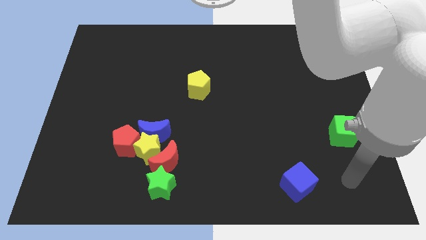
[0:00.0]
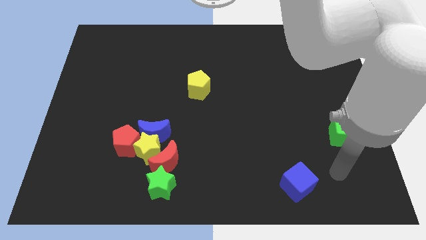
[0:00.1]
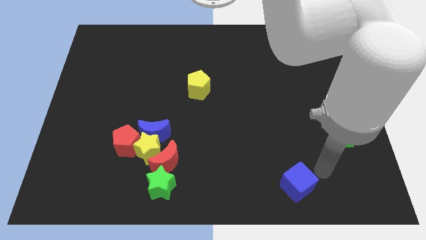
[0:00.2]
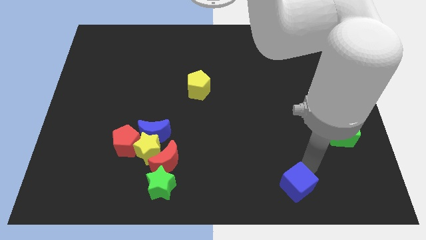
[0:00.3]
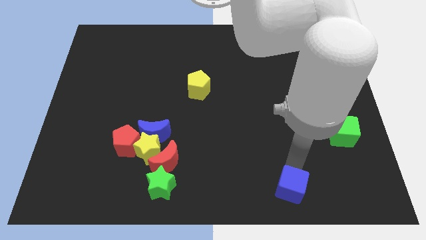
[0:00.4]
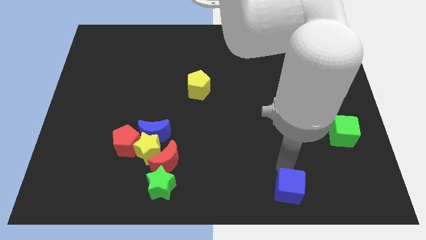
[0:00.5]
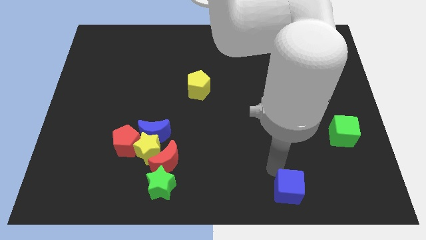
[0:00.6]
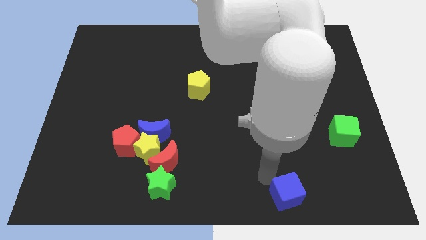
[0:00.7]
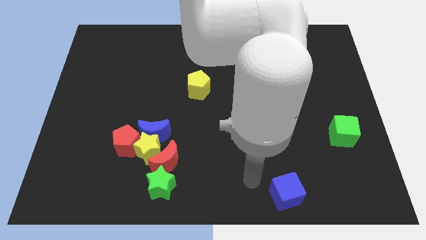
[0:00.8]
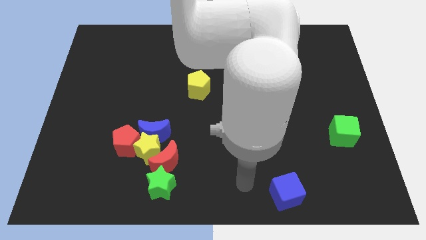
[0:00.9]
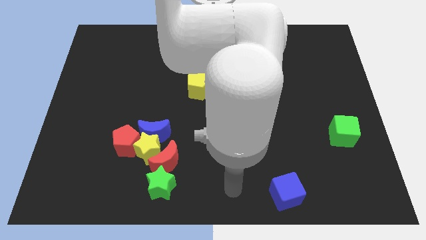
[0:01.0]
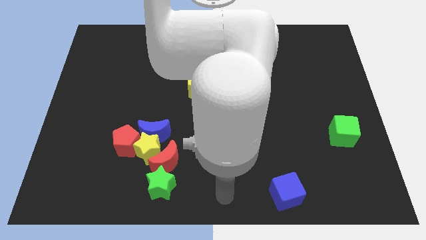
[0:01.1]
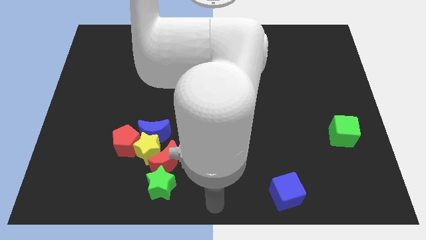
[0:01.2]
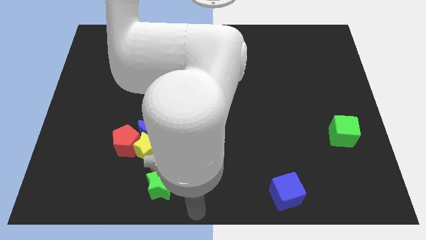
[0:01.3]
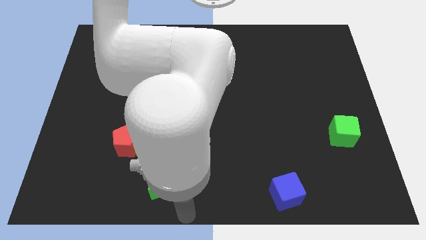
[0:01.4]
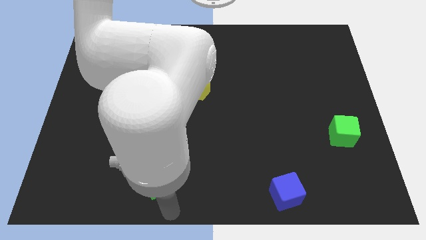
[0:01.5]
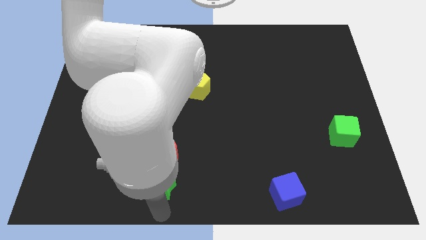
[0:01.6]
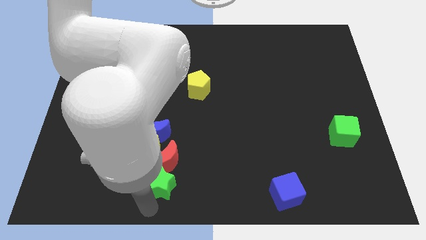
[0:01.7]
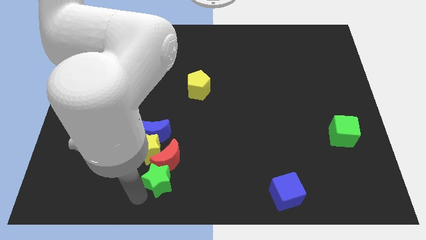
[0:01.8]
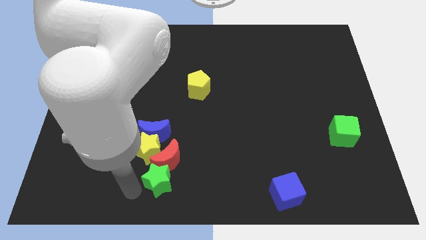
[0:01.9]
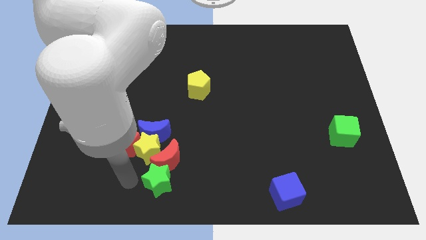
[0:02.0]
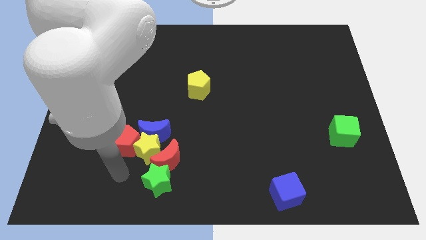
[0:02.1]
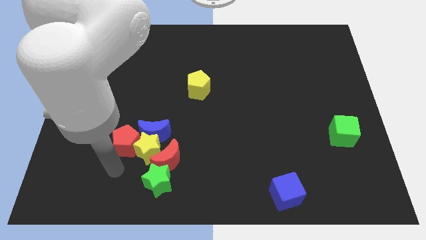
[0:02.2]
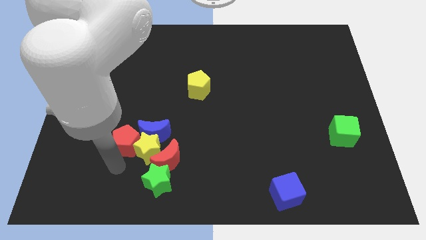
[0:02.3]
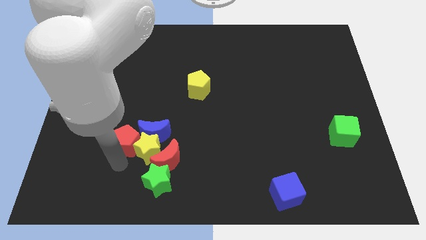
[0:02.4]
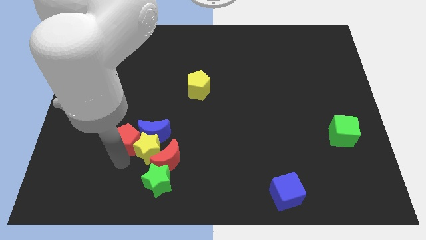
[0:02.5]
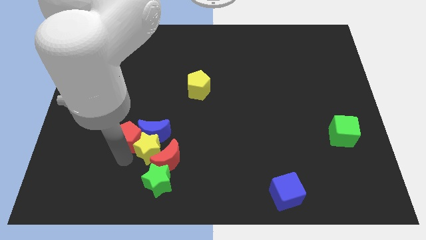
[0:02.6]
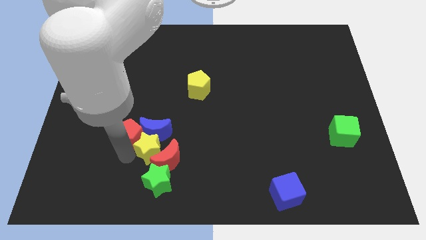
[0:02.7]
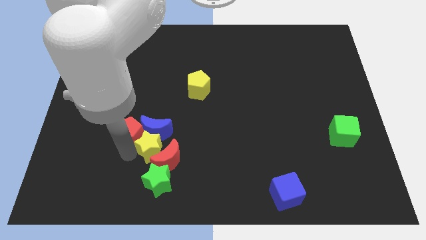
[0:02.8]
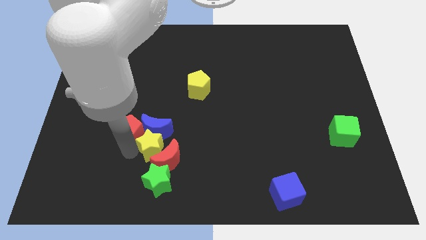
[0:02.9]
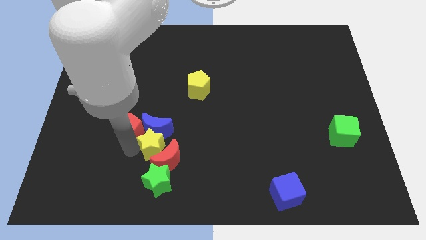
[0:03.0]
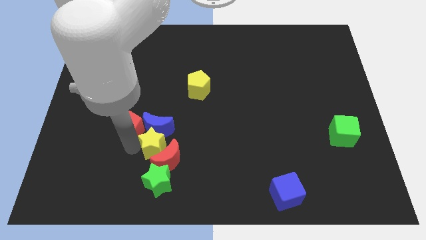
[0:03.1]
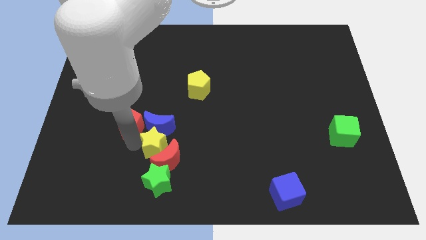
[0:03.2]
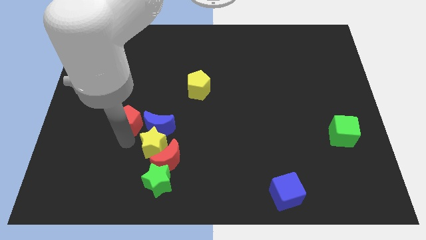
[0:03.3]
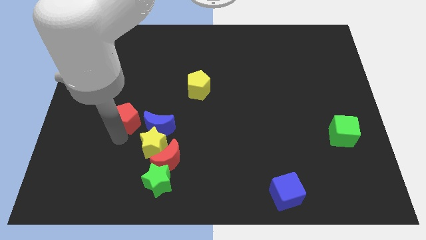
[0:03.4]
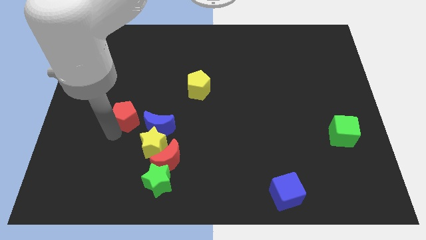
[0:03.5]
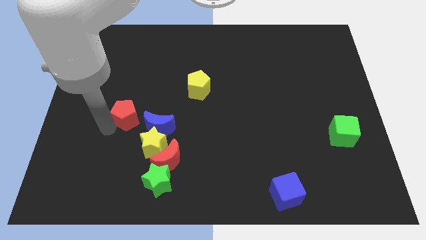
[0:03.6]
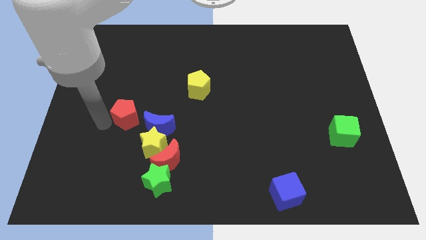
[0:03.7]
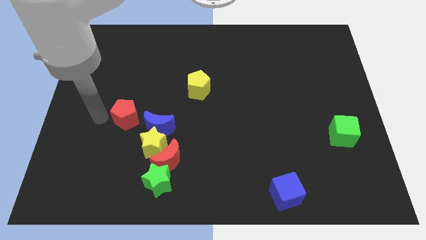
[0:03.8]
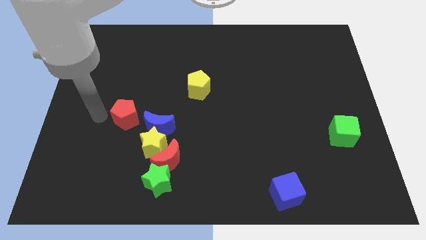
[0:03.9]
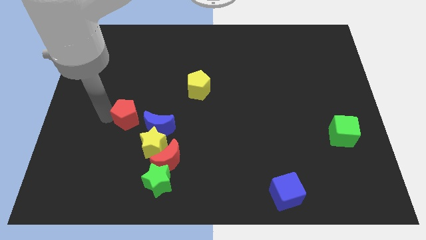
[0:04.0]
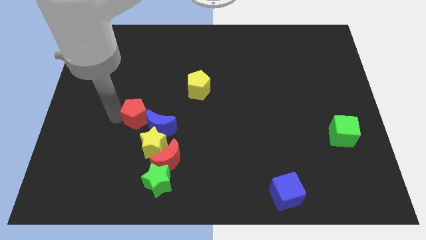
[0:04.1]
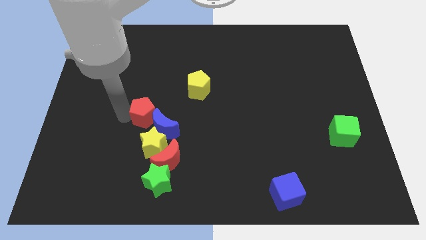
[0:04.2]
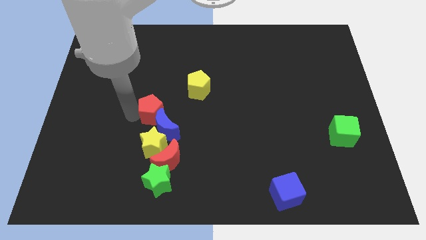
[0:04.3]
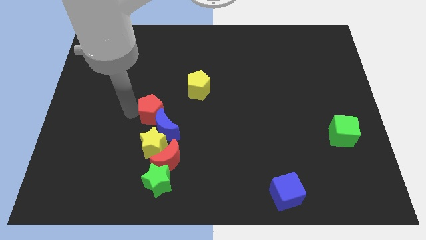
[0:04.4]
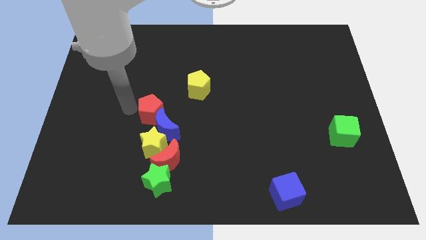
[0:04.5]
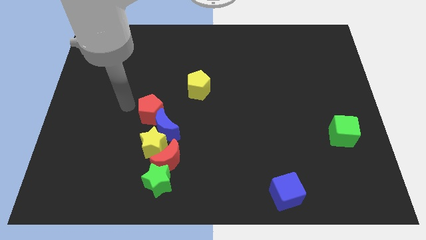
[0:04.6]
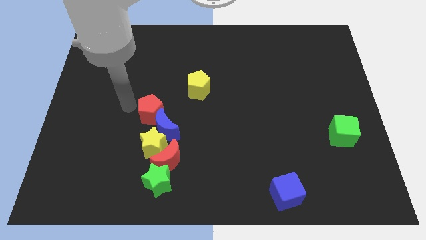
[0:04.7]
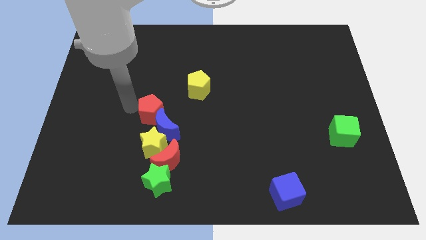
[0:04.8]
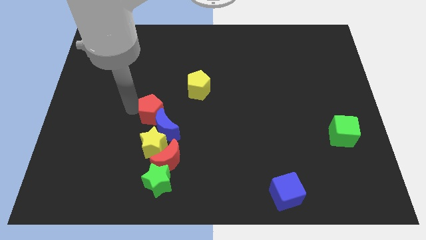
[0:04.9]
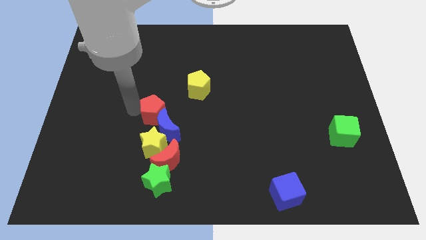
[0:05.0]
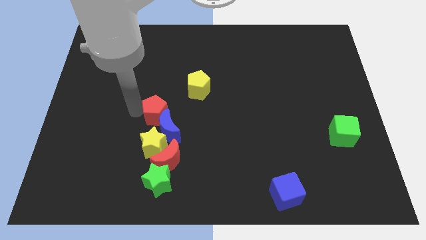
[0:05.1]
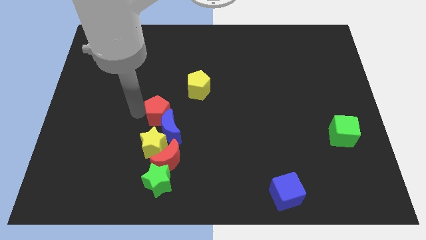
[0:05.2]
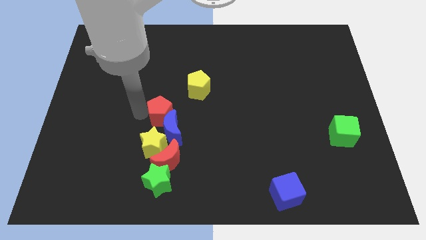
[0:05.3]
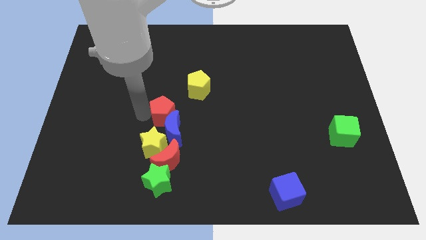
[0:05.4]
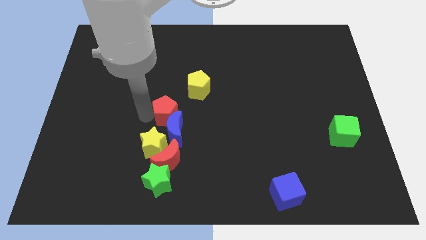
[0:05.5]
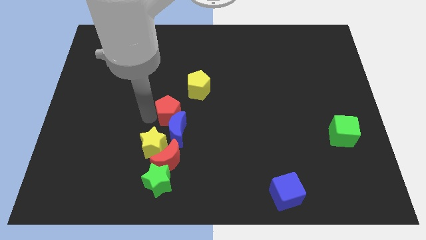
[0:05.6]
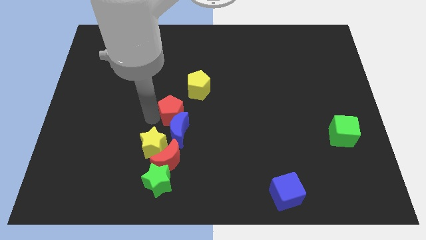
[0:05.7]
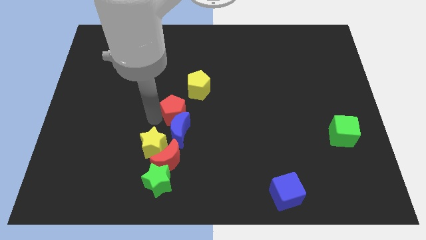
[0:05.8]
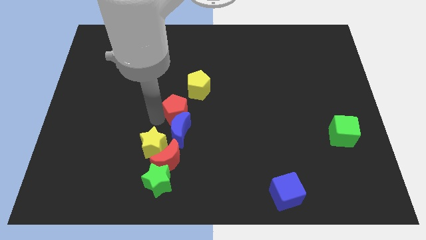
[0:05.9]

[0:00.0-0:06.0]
slide the red pentagon to the right a bit

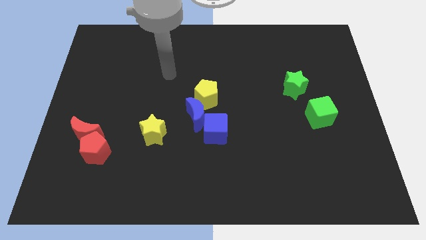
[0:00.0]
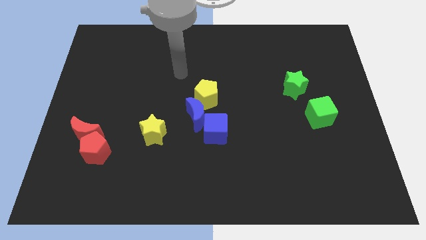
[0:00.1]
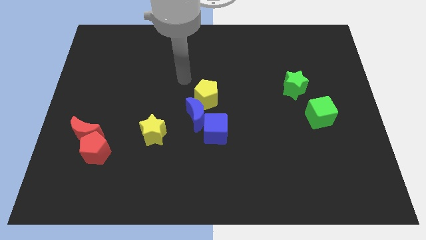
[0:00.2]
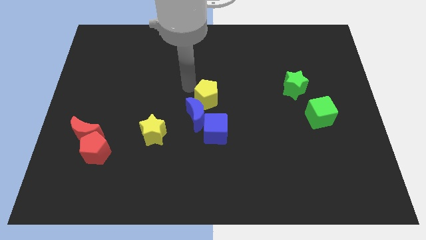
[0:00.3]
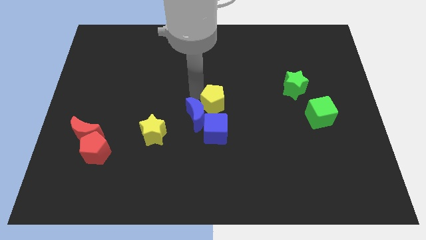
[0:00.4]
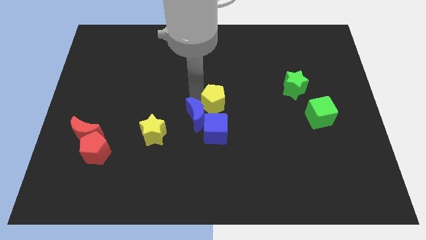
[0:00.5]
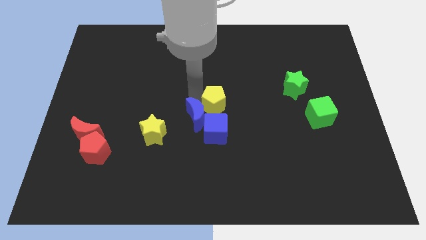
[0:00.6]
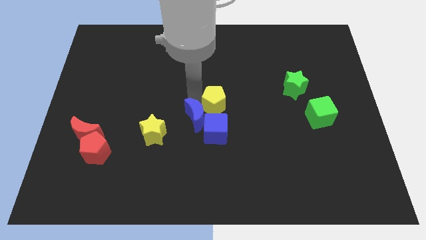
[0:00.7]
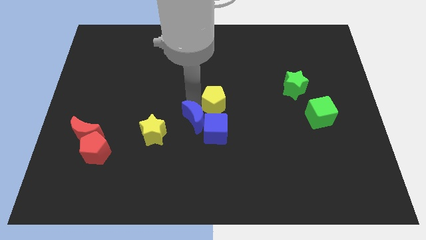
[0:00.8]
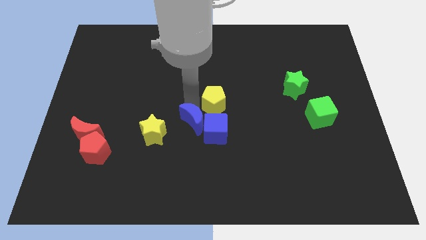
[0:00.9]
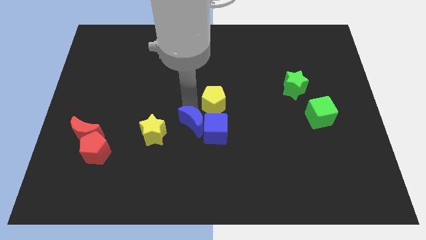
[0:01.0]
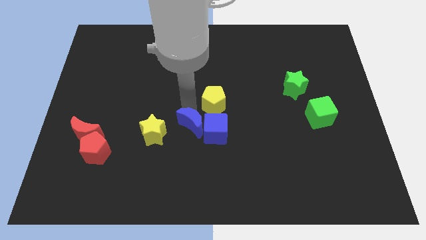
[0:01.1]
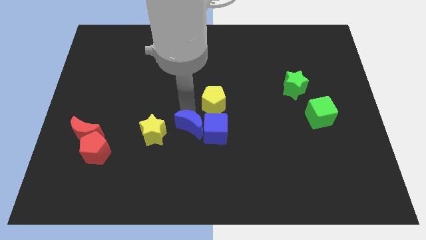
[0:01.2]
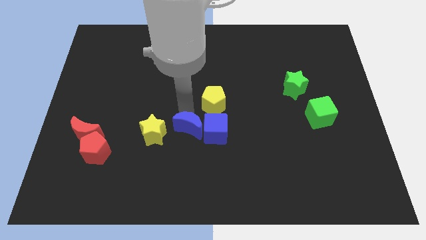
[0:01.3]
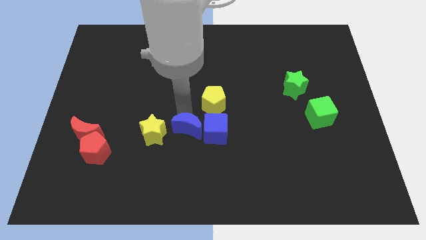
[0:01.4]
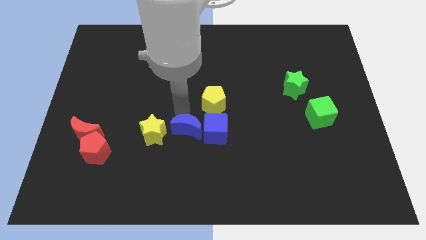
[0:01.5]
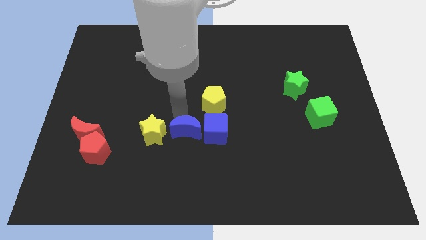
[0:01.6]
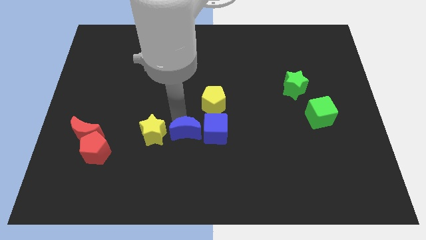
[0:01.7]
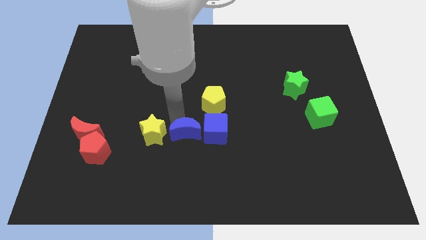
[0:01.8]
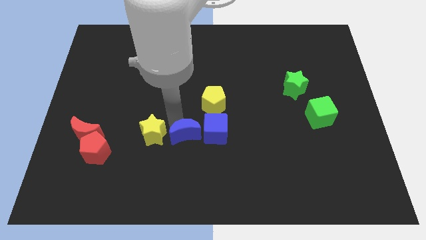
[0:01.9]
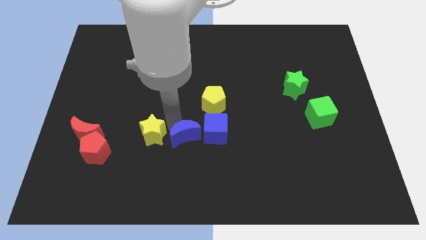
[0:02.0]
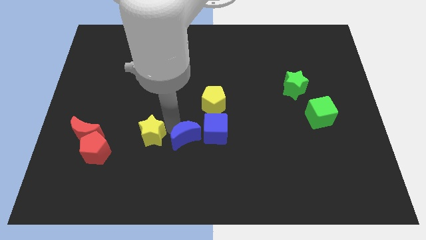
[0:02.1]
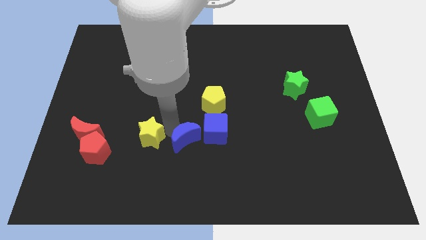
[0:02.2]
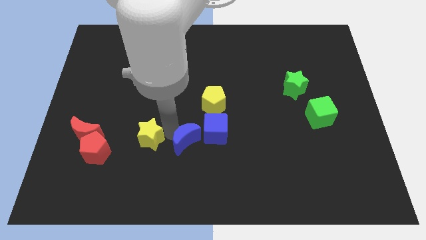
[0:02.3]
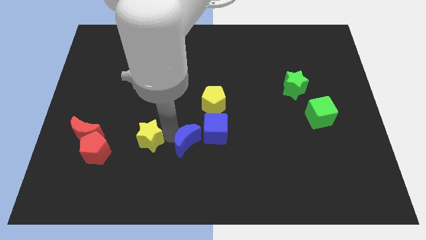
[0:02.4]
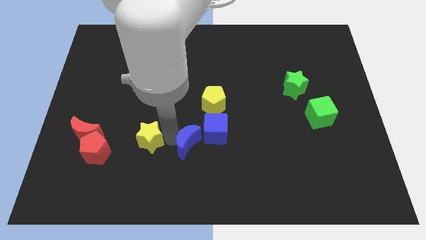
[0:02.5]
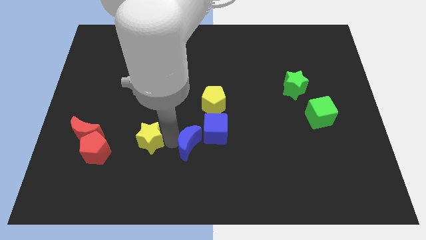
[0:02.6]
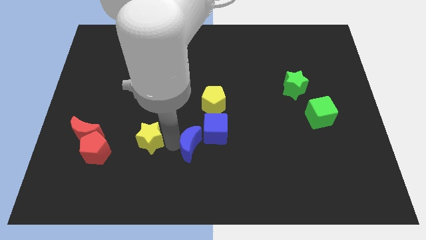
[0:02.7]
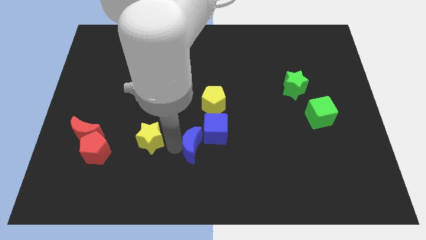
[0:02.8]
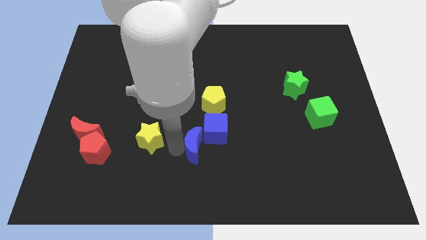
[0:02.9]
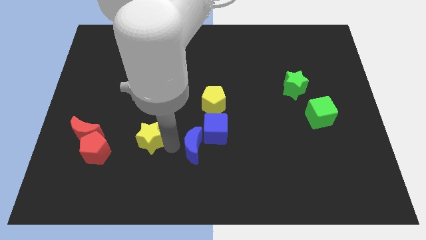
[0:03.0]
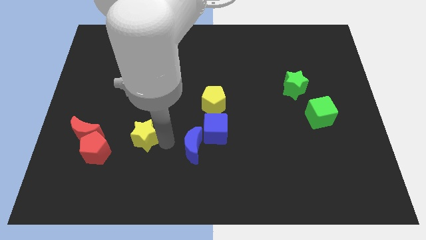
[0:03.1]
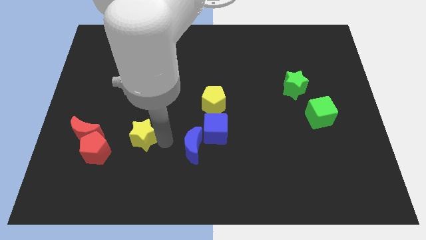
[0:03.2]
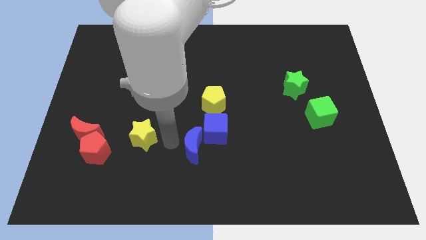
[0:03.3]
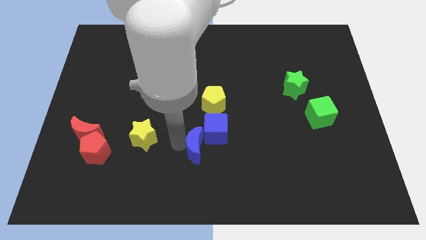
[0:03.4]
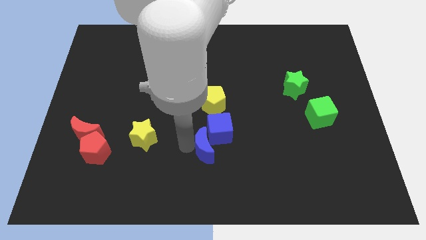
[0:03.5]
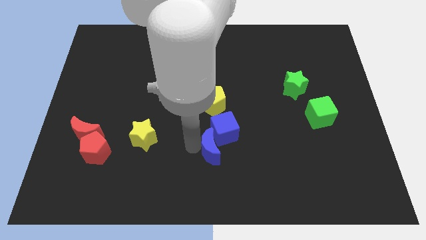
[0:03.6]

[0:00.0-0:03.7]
slightly slide the blue moon diagonally downwards and right
